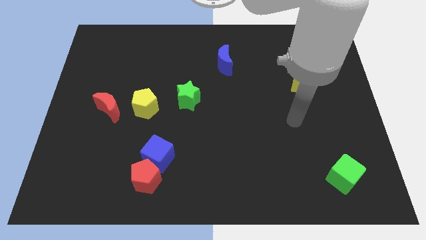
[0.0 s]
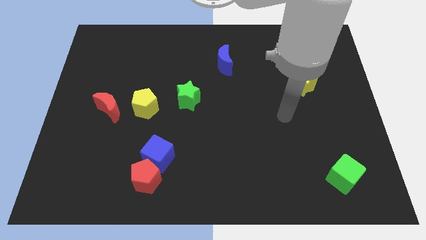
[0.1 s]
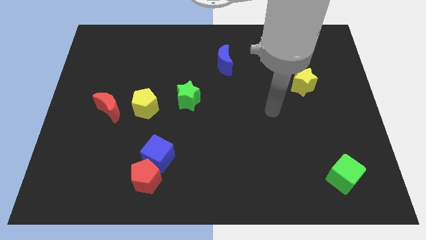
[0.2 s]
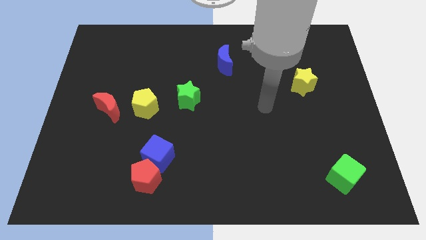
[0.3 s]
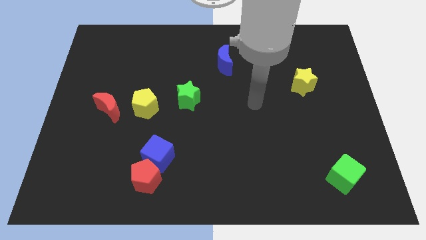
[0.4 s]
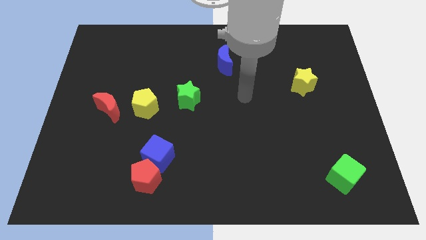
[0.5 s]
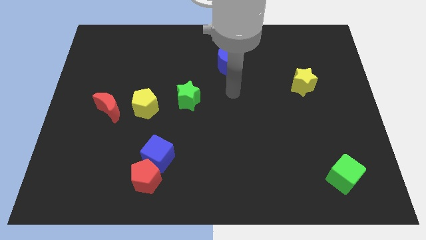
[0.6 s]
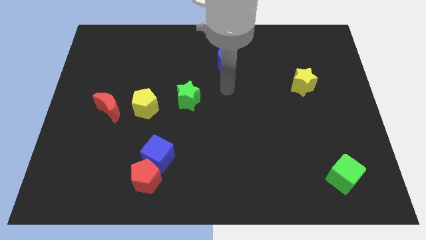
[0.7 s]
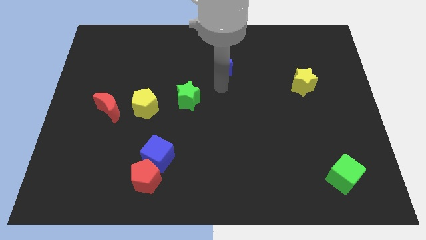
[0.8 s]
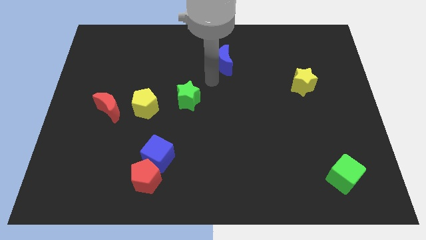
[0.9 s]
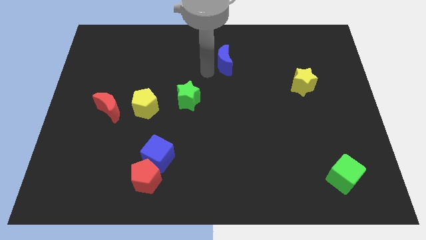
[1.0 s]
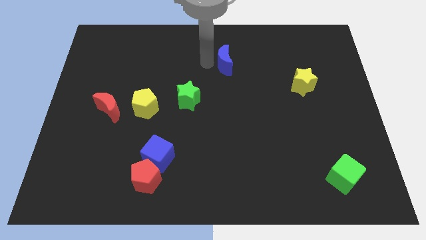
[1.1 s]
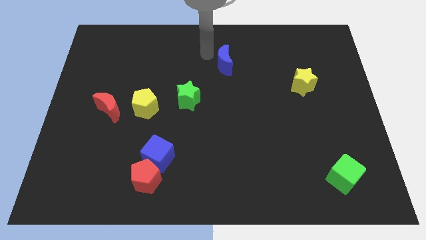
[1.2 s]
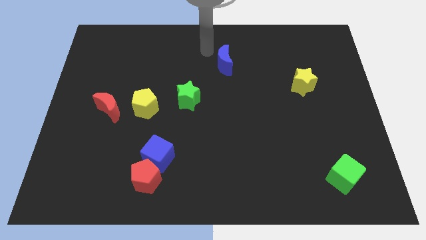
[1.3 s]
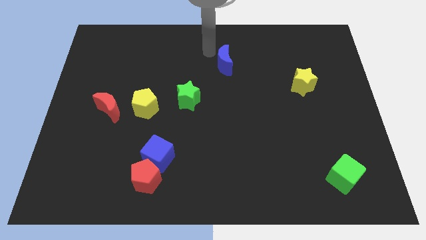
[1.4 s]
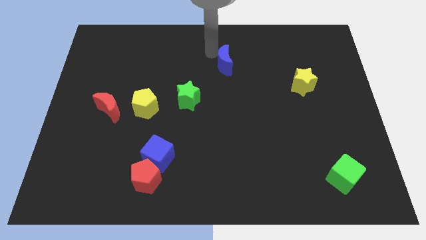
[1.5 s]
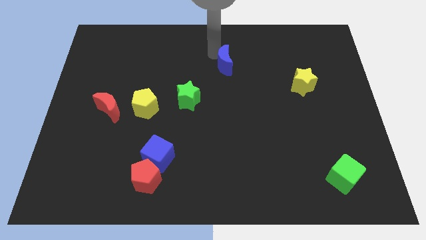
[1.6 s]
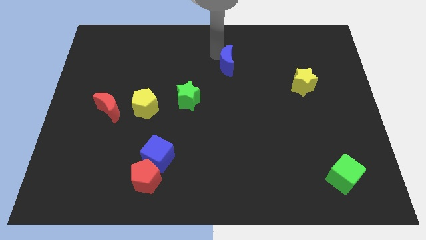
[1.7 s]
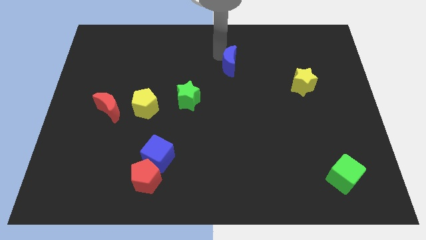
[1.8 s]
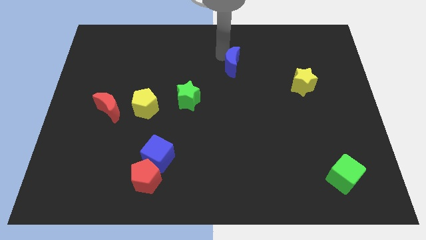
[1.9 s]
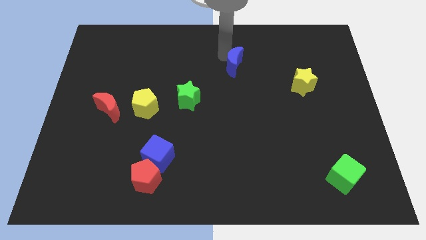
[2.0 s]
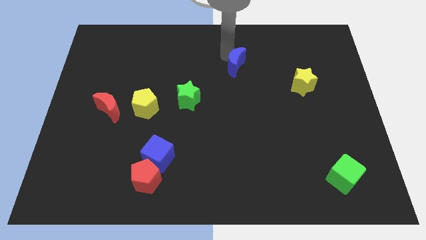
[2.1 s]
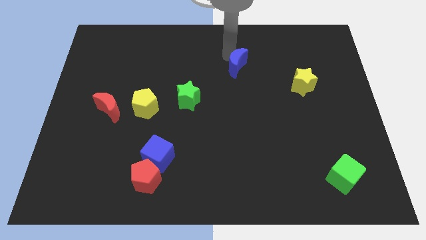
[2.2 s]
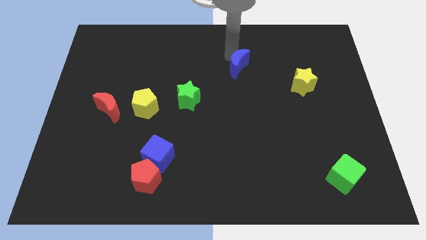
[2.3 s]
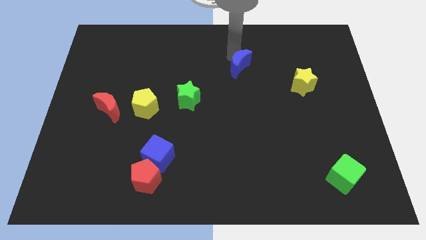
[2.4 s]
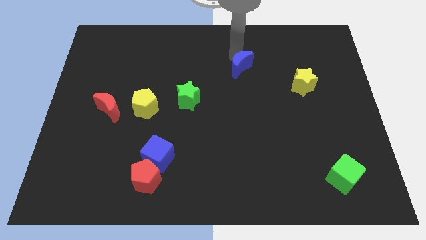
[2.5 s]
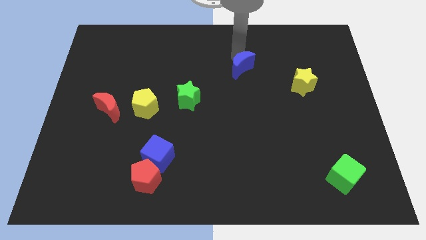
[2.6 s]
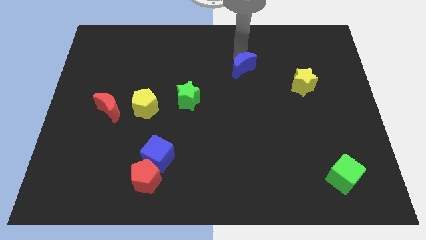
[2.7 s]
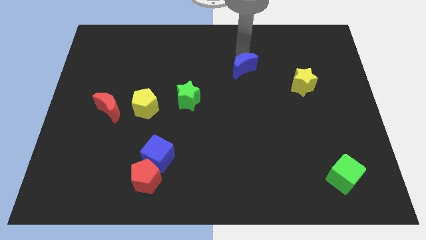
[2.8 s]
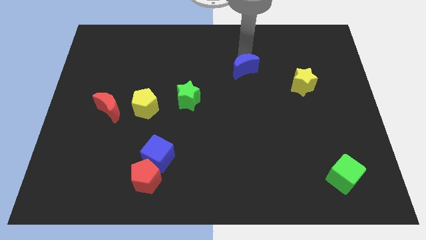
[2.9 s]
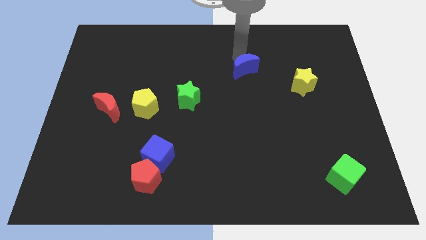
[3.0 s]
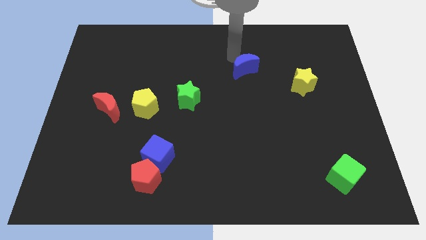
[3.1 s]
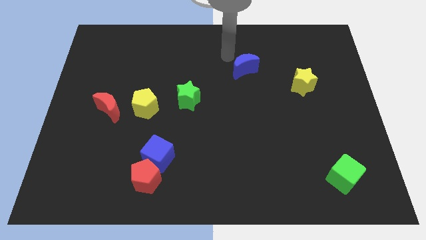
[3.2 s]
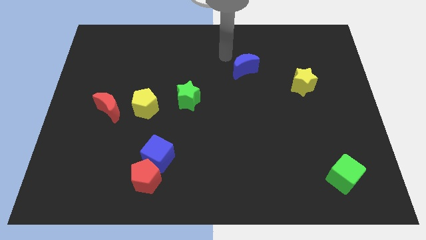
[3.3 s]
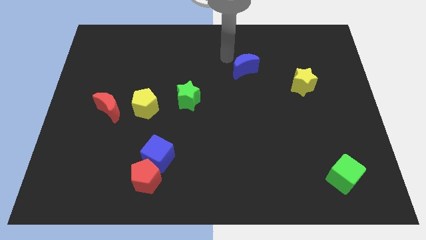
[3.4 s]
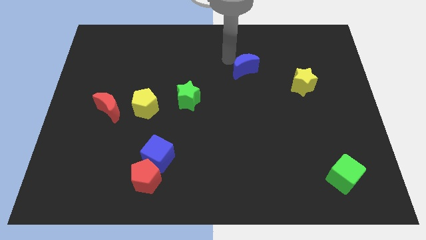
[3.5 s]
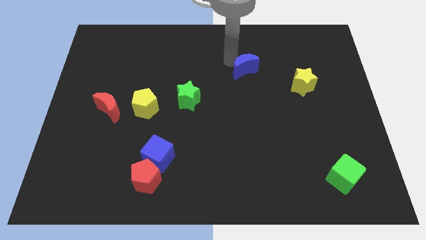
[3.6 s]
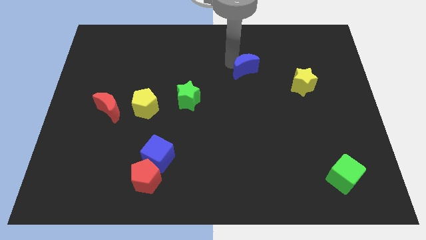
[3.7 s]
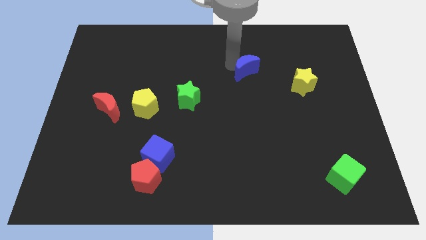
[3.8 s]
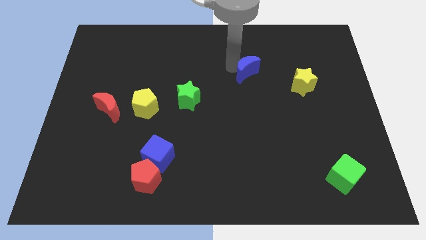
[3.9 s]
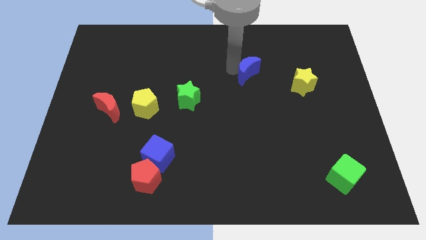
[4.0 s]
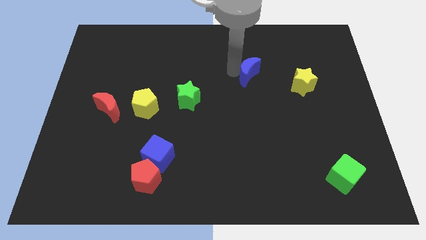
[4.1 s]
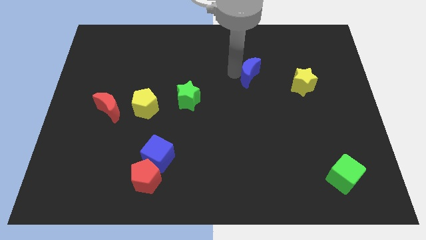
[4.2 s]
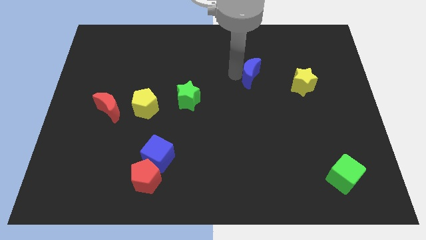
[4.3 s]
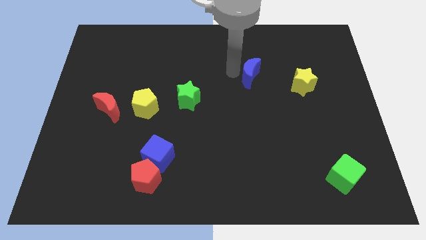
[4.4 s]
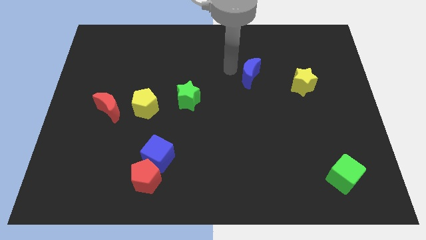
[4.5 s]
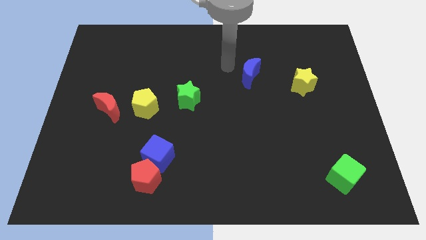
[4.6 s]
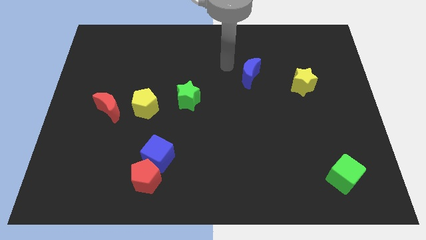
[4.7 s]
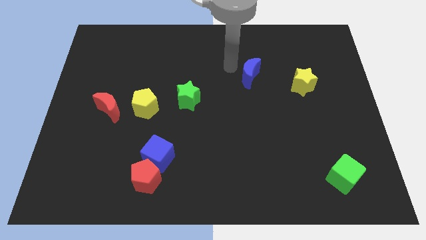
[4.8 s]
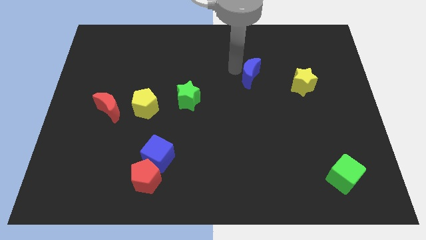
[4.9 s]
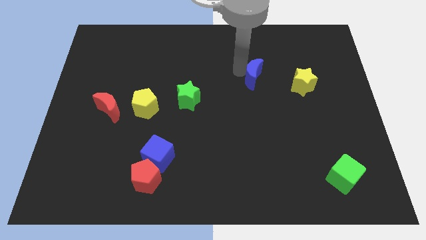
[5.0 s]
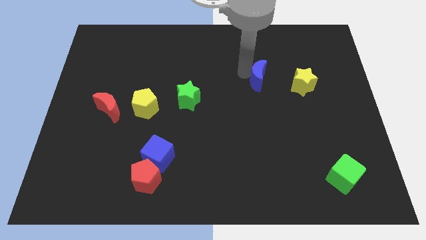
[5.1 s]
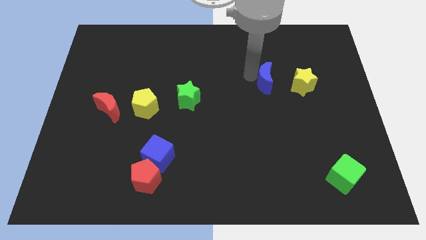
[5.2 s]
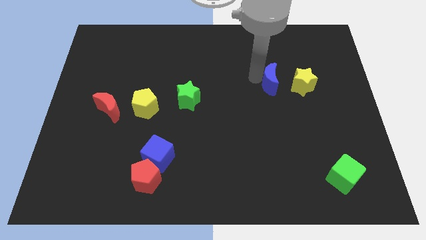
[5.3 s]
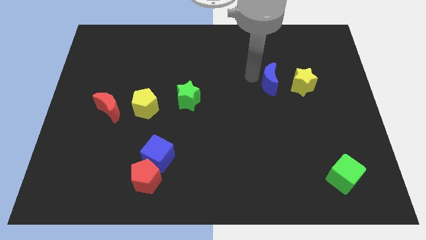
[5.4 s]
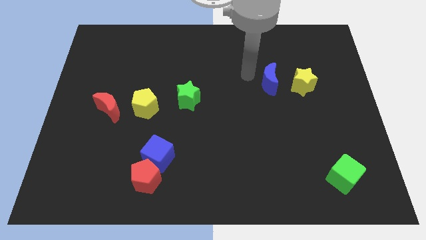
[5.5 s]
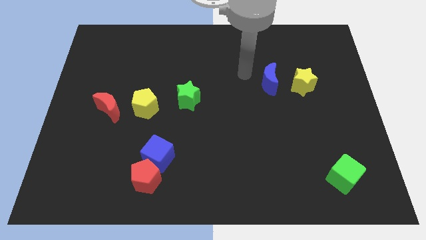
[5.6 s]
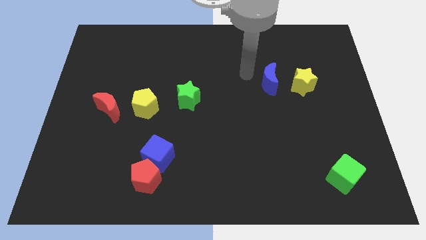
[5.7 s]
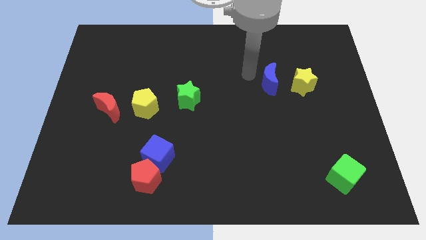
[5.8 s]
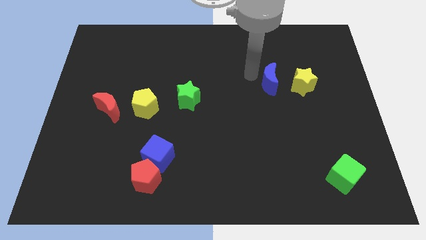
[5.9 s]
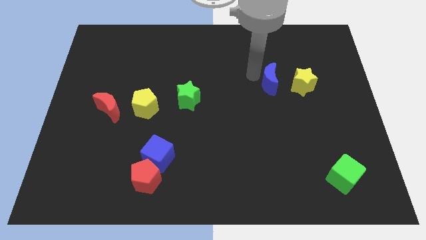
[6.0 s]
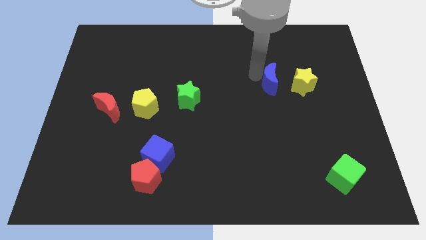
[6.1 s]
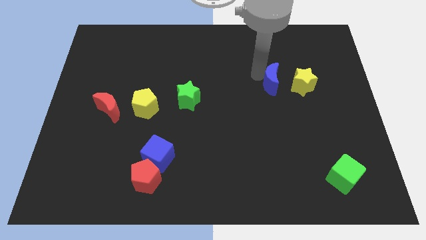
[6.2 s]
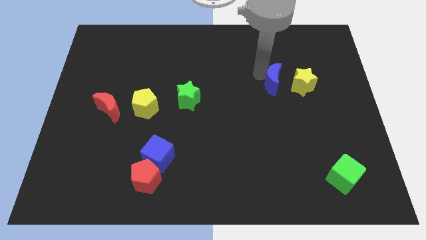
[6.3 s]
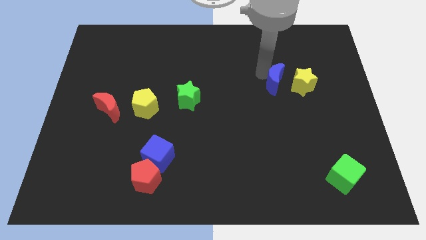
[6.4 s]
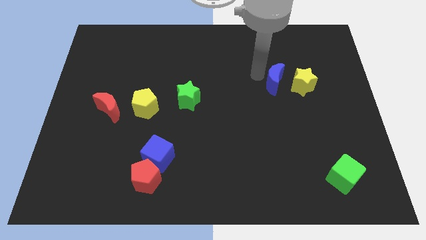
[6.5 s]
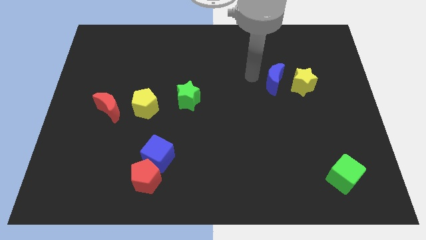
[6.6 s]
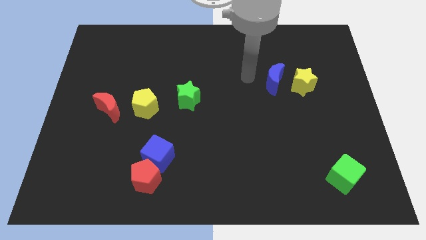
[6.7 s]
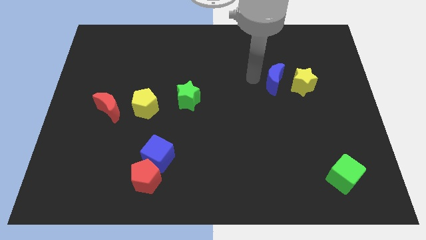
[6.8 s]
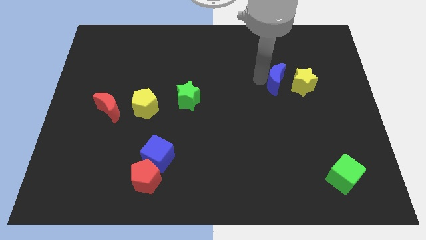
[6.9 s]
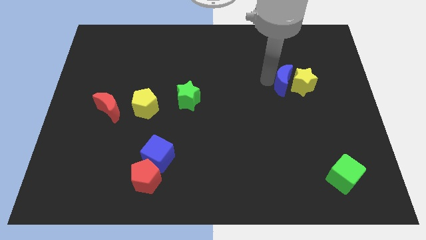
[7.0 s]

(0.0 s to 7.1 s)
push the blue moon next to the yellow star
